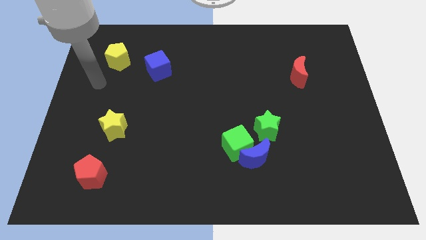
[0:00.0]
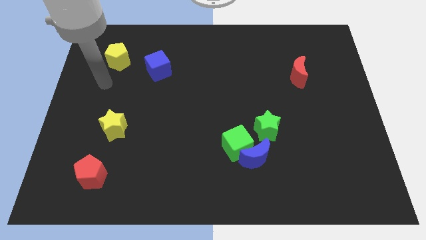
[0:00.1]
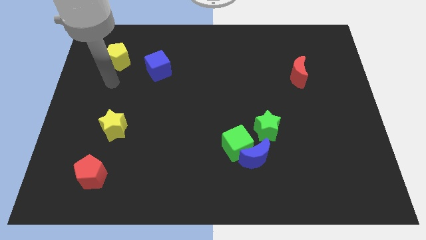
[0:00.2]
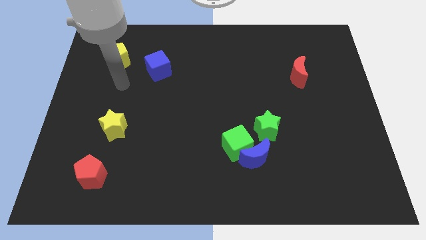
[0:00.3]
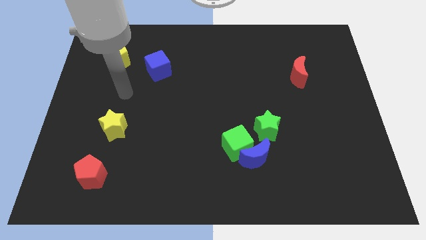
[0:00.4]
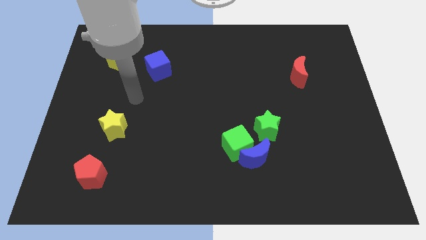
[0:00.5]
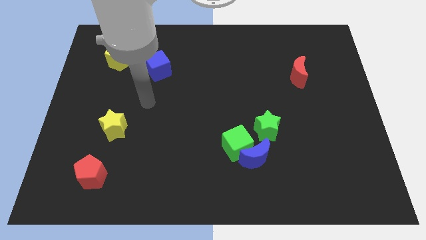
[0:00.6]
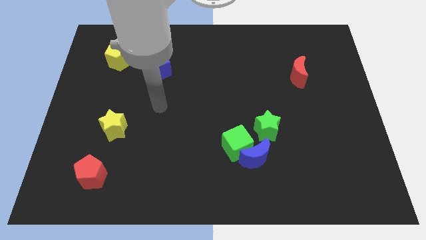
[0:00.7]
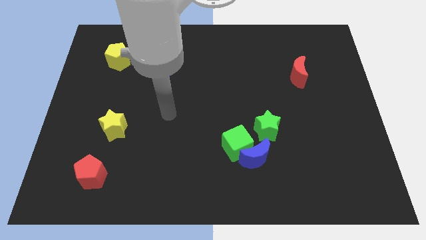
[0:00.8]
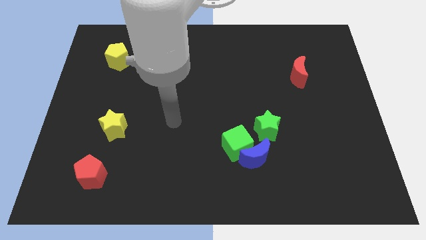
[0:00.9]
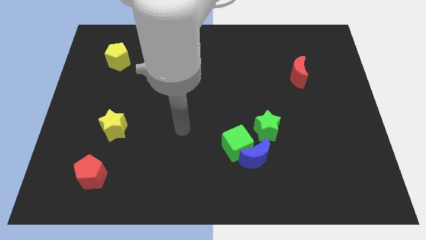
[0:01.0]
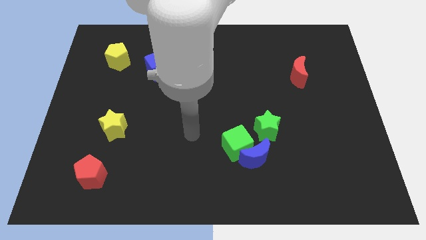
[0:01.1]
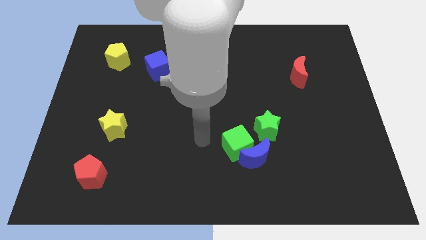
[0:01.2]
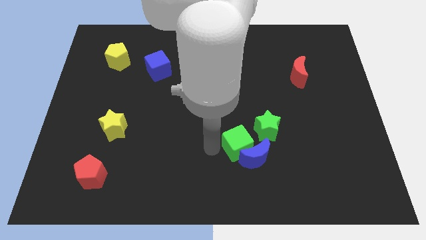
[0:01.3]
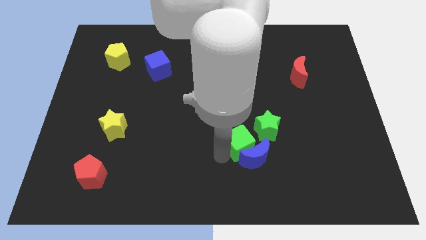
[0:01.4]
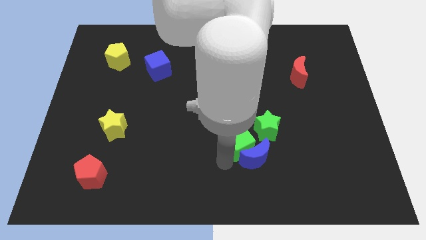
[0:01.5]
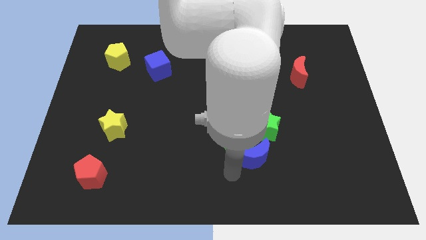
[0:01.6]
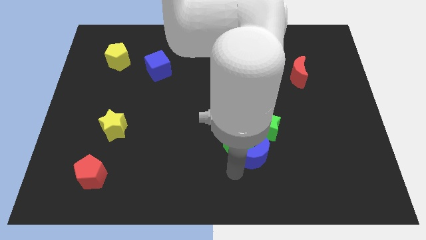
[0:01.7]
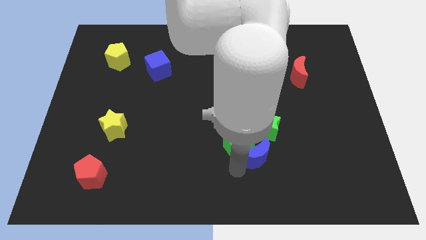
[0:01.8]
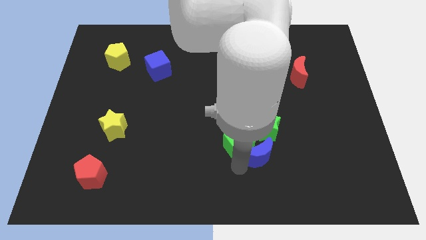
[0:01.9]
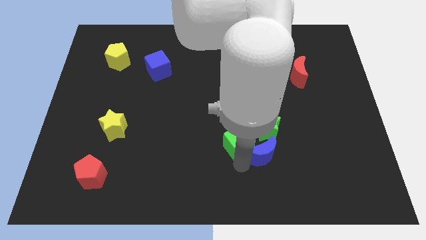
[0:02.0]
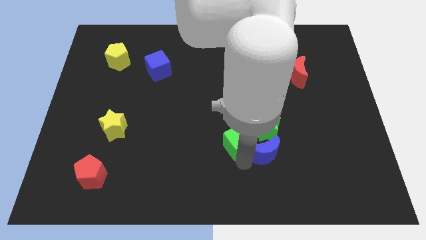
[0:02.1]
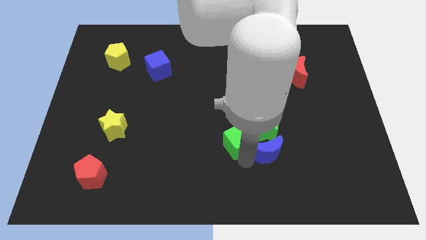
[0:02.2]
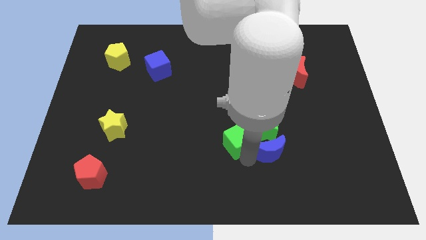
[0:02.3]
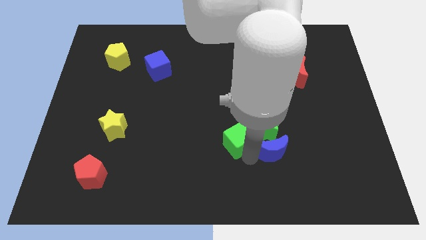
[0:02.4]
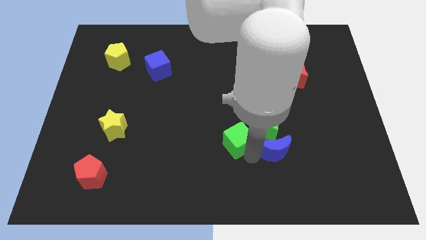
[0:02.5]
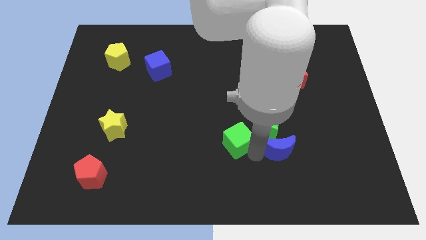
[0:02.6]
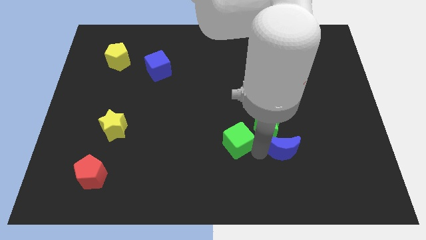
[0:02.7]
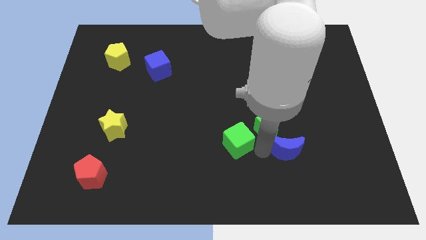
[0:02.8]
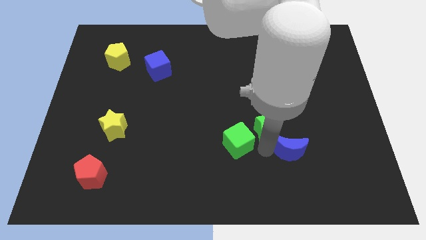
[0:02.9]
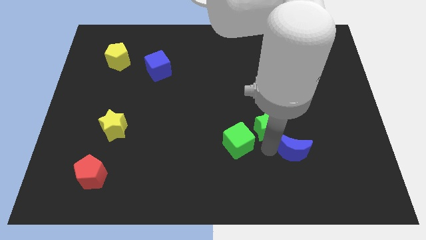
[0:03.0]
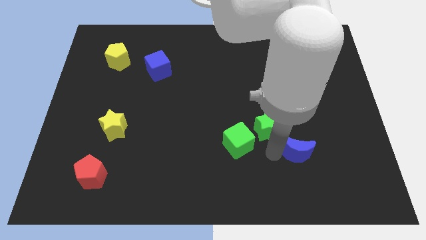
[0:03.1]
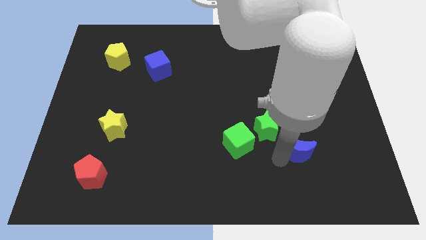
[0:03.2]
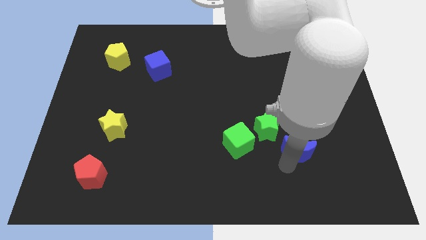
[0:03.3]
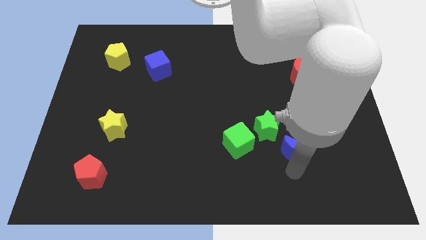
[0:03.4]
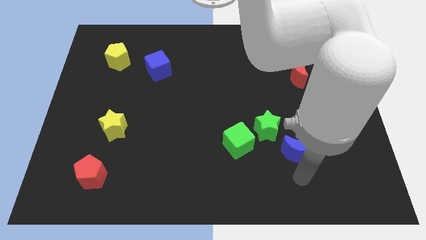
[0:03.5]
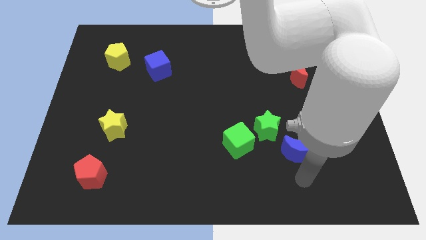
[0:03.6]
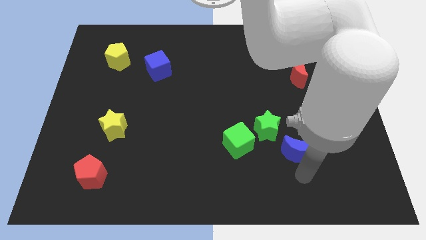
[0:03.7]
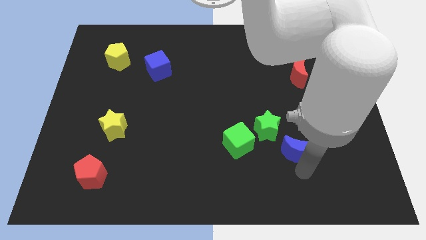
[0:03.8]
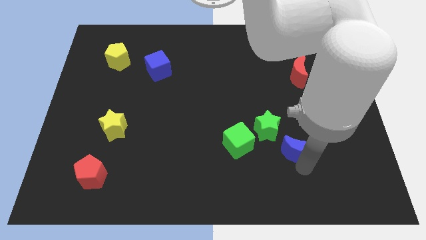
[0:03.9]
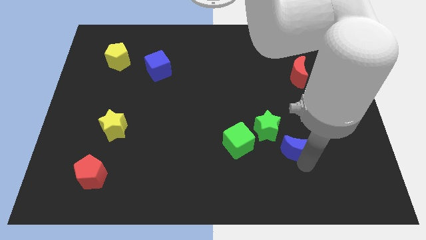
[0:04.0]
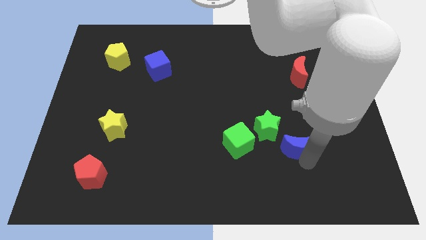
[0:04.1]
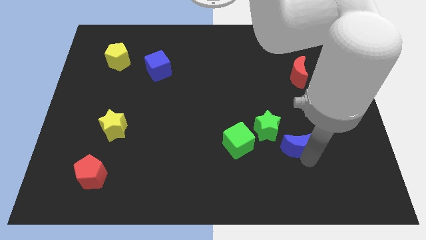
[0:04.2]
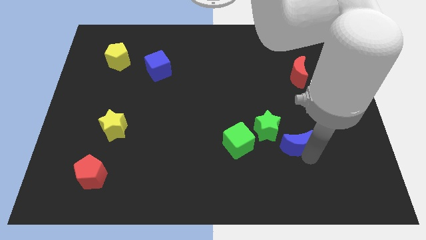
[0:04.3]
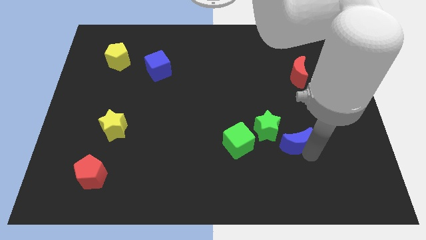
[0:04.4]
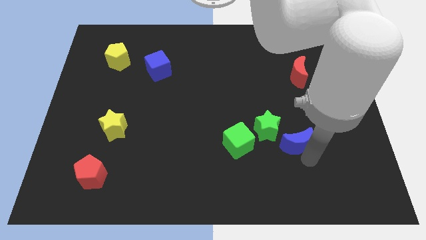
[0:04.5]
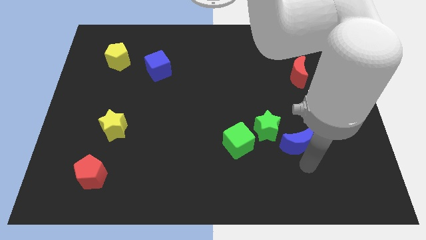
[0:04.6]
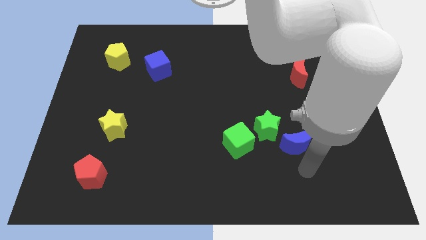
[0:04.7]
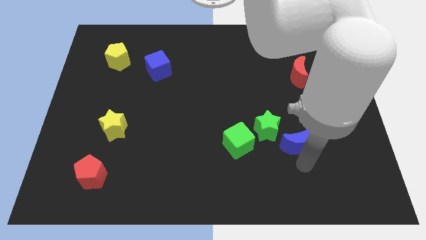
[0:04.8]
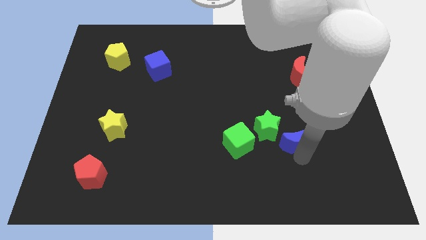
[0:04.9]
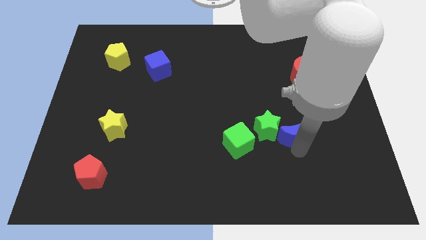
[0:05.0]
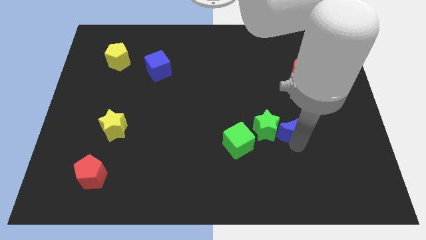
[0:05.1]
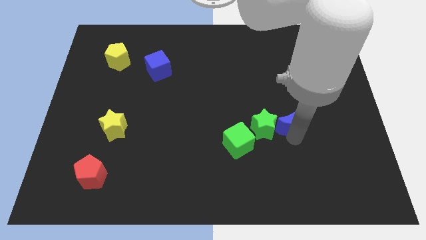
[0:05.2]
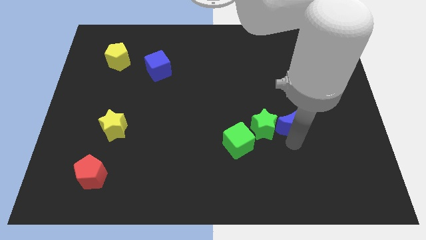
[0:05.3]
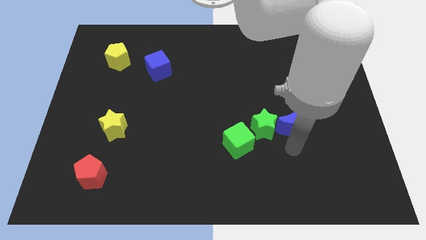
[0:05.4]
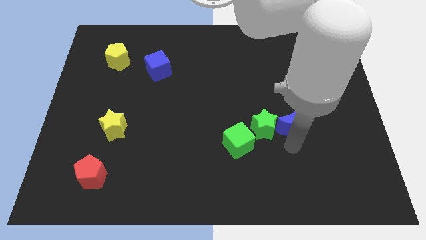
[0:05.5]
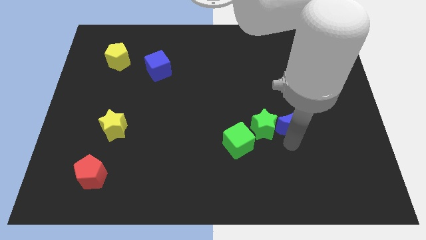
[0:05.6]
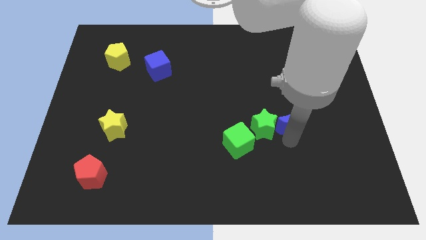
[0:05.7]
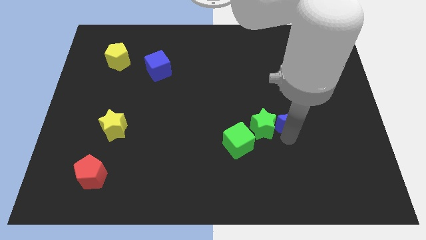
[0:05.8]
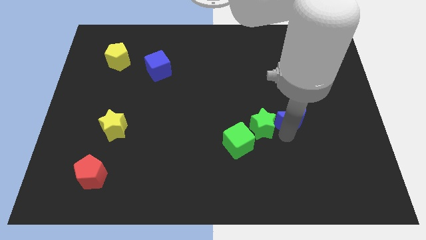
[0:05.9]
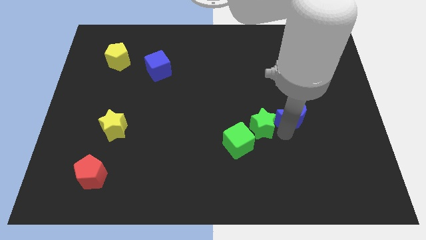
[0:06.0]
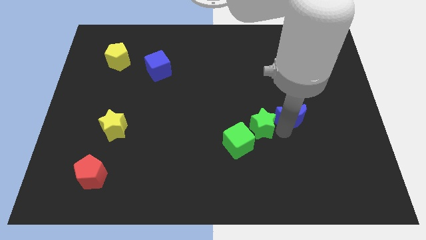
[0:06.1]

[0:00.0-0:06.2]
move the blue moon somewhat upwards

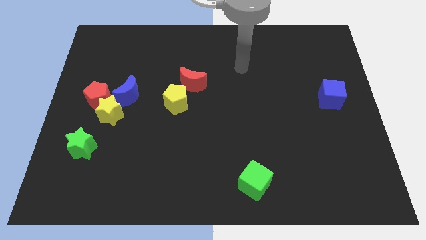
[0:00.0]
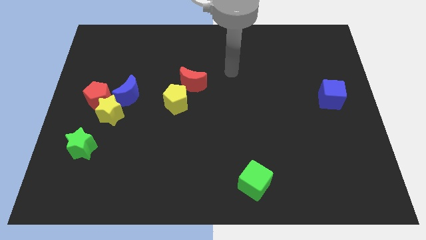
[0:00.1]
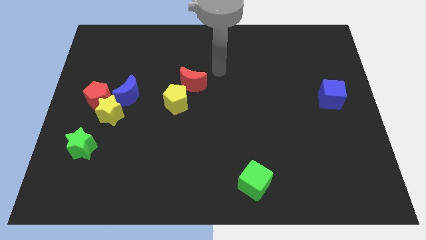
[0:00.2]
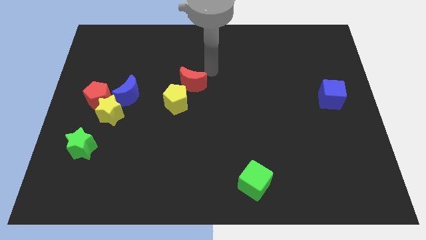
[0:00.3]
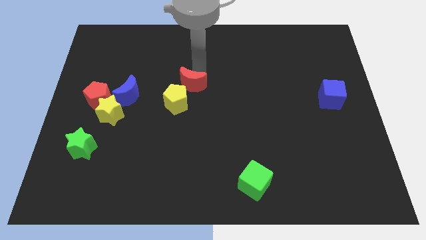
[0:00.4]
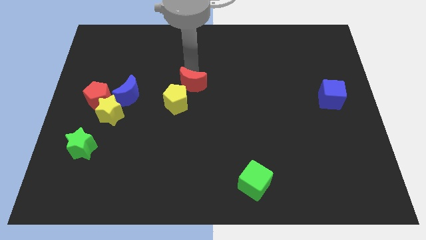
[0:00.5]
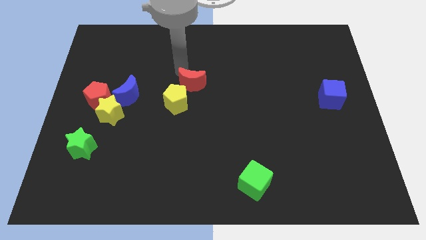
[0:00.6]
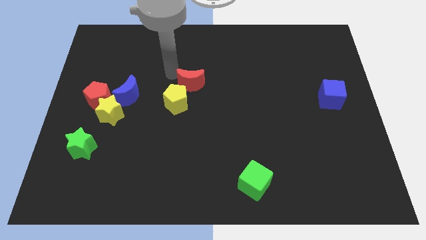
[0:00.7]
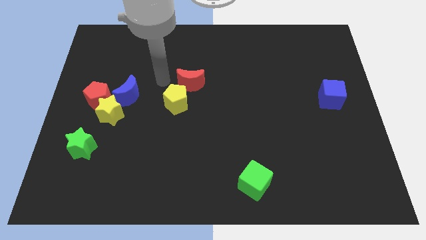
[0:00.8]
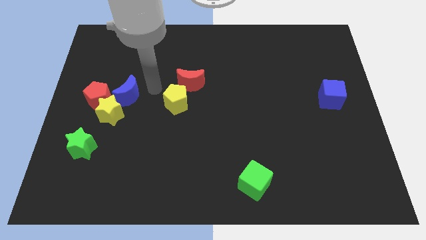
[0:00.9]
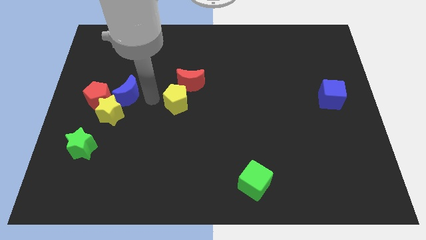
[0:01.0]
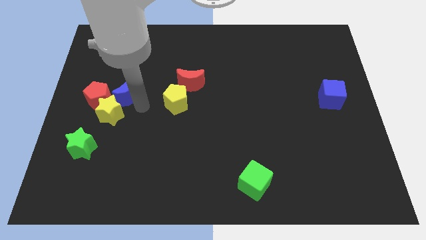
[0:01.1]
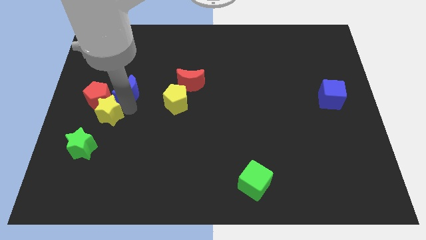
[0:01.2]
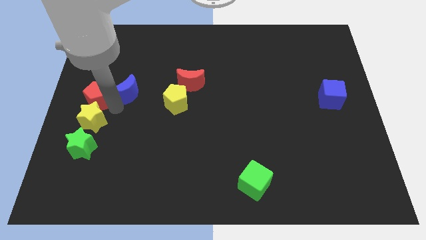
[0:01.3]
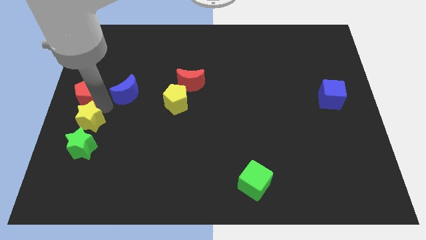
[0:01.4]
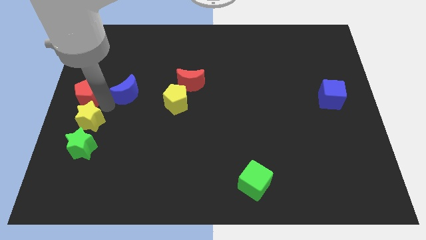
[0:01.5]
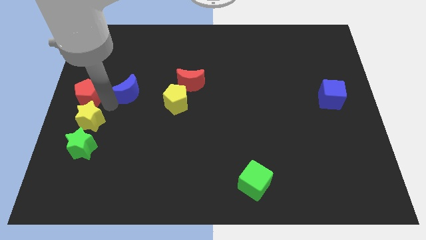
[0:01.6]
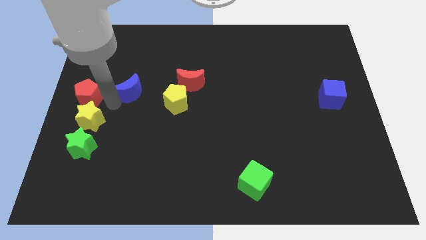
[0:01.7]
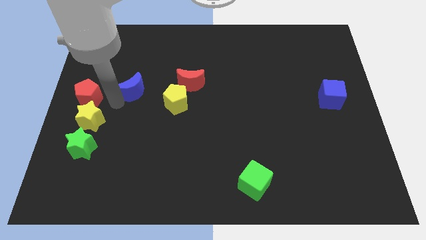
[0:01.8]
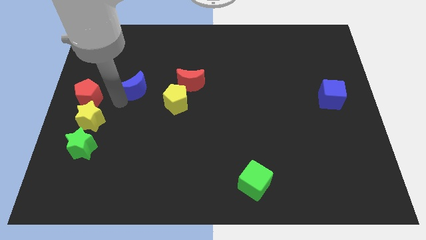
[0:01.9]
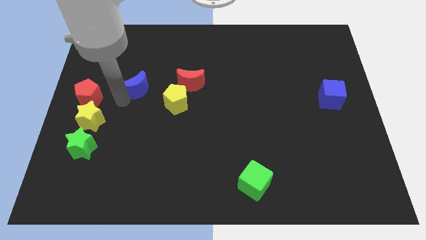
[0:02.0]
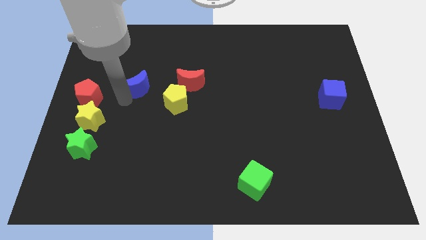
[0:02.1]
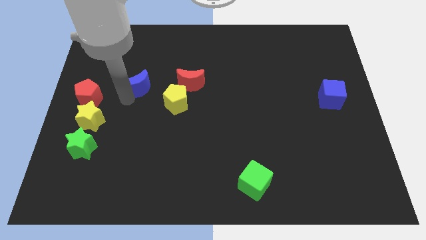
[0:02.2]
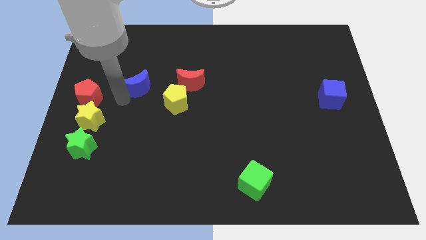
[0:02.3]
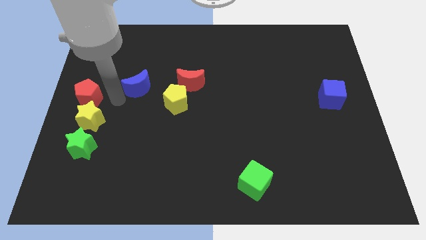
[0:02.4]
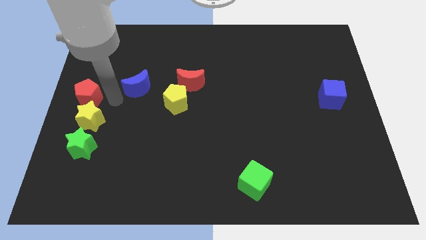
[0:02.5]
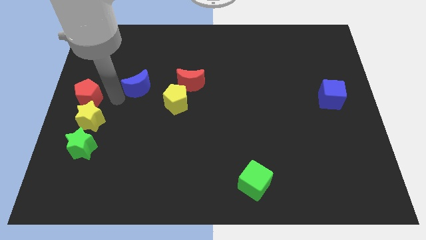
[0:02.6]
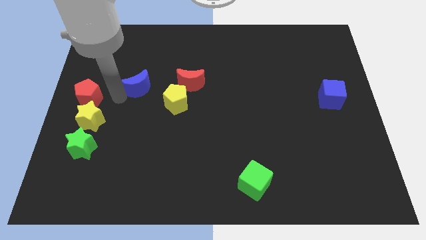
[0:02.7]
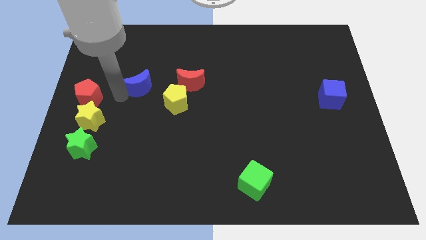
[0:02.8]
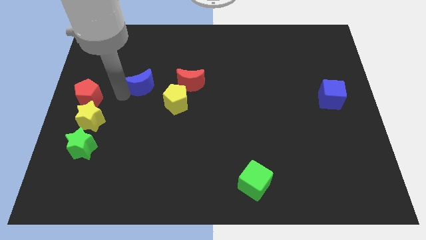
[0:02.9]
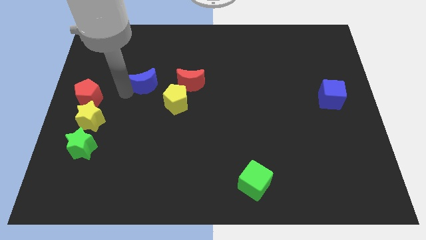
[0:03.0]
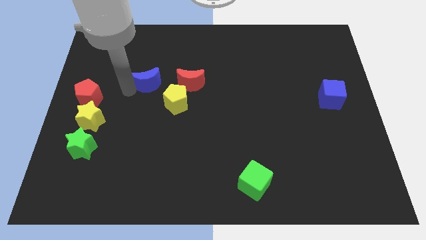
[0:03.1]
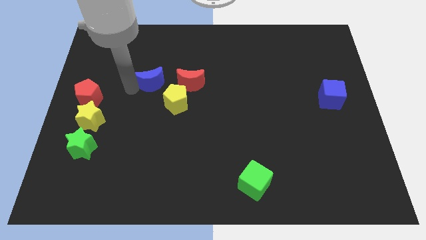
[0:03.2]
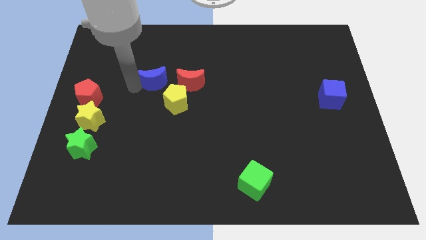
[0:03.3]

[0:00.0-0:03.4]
slightly push the blue moon diagonally up and right
